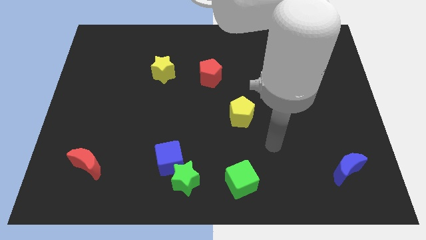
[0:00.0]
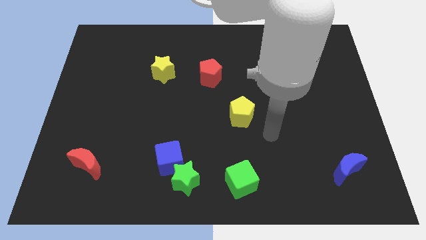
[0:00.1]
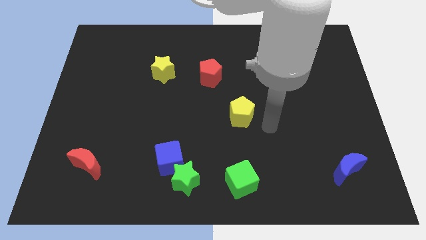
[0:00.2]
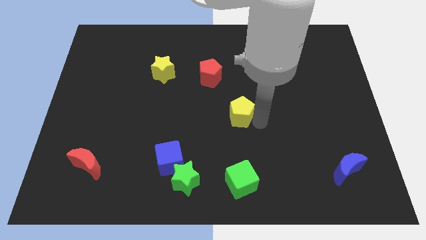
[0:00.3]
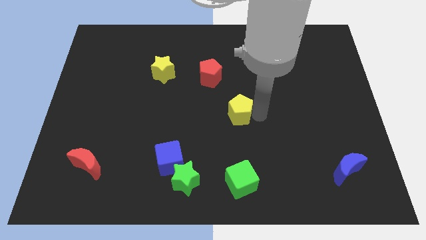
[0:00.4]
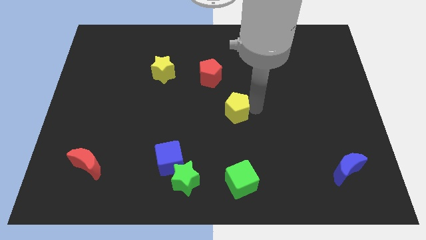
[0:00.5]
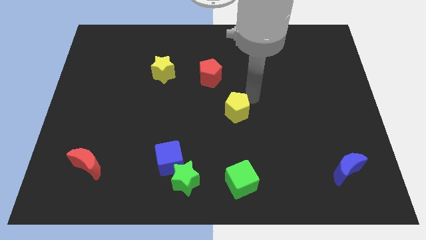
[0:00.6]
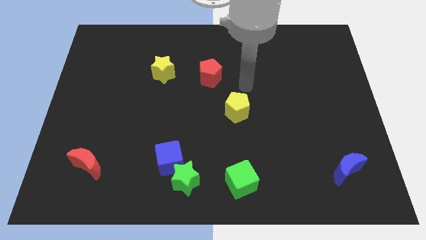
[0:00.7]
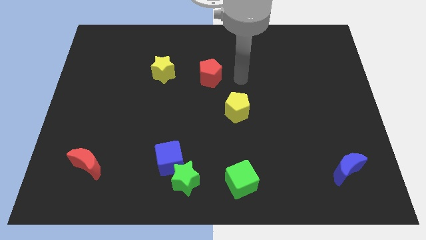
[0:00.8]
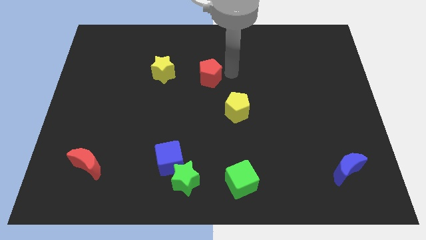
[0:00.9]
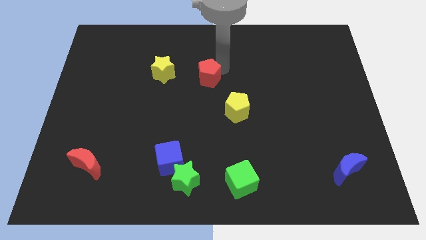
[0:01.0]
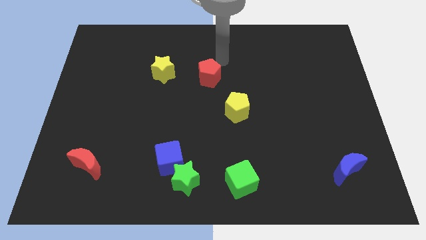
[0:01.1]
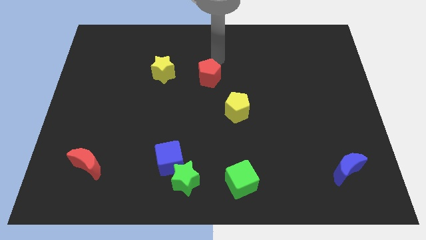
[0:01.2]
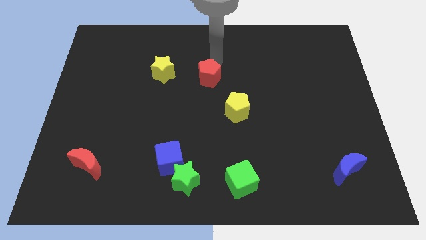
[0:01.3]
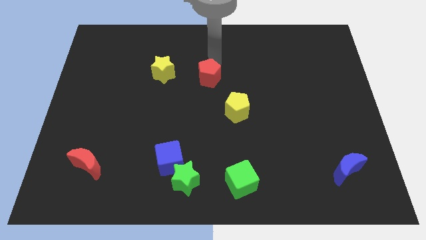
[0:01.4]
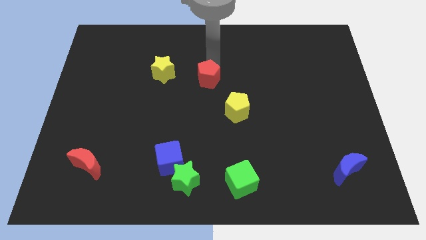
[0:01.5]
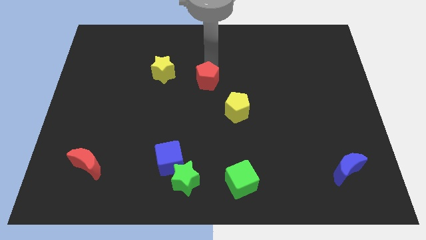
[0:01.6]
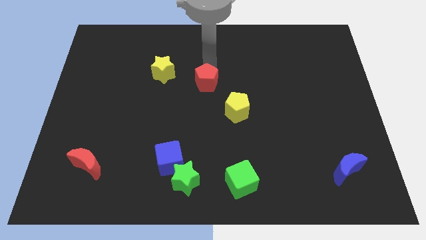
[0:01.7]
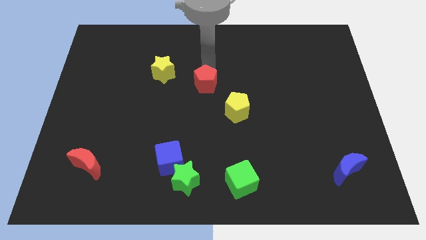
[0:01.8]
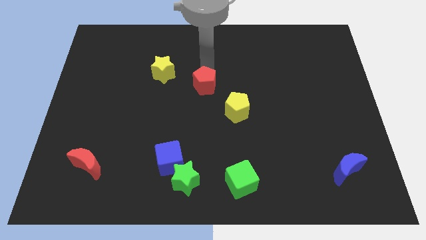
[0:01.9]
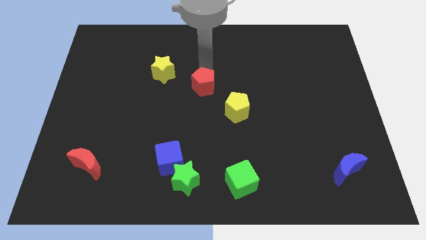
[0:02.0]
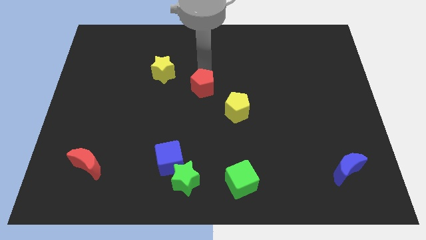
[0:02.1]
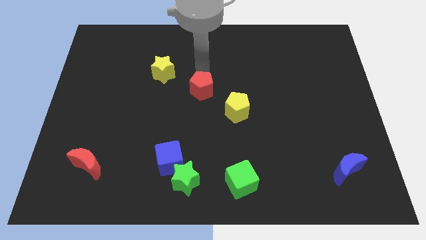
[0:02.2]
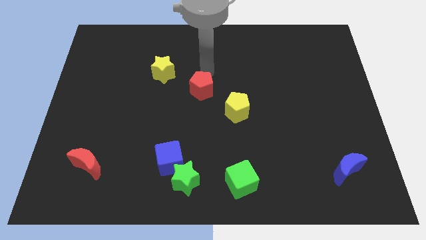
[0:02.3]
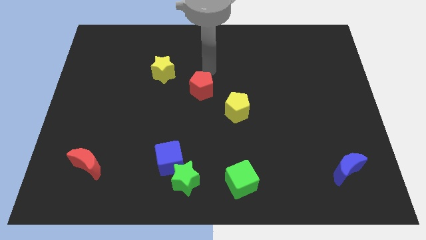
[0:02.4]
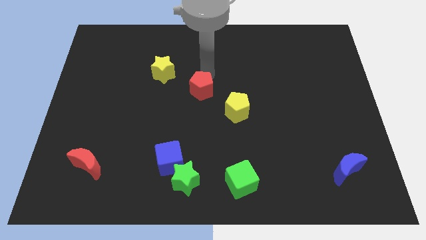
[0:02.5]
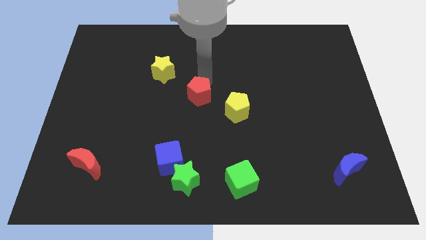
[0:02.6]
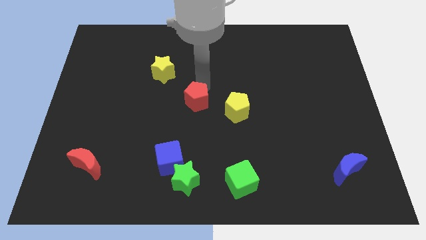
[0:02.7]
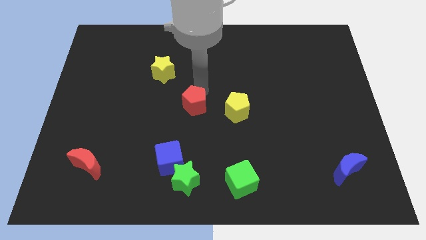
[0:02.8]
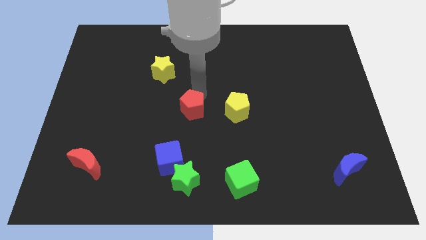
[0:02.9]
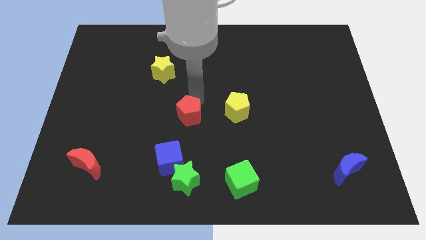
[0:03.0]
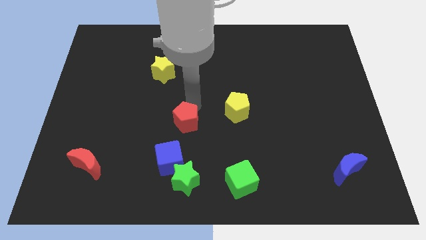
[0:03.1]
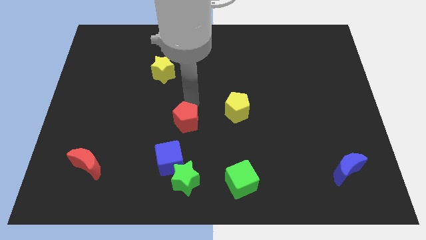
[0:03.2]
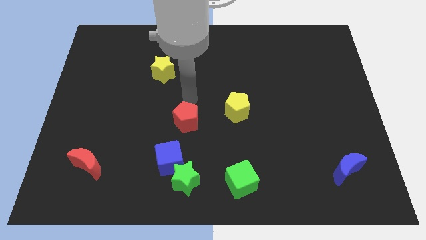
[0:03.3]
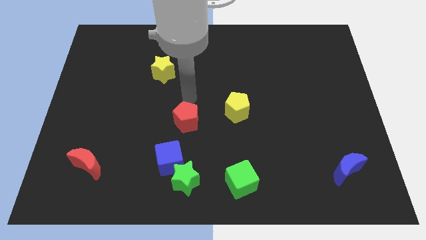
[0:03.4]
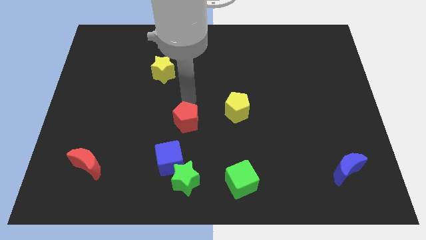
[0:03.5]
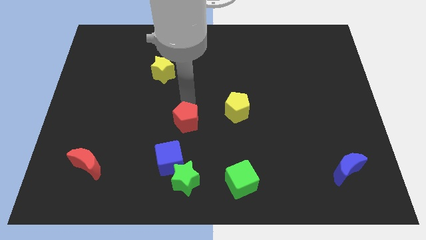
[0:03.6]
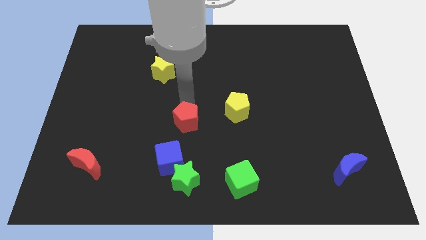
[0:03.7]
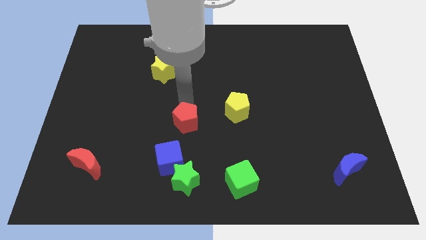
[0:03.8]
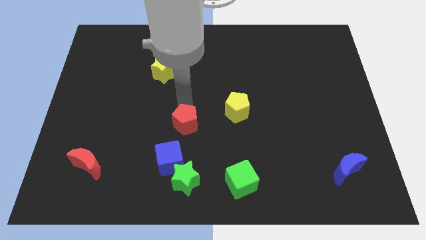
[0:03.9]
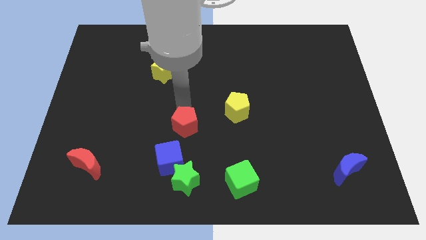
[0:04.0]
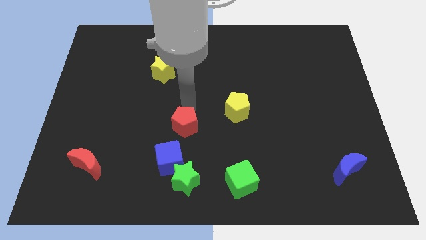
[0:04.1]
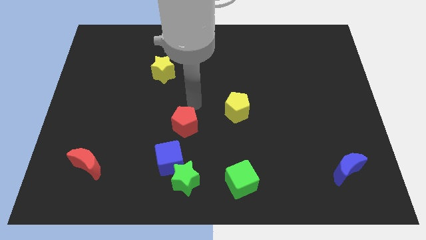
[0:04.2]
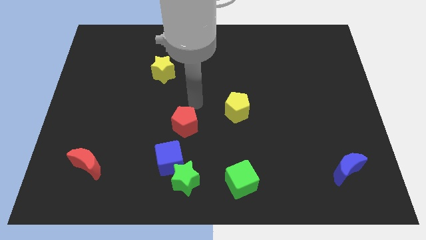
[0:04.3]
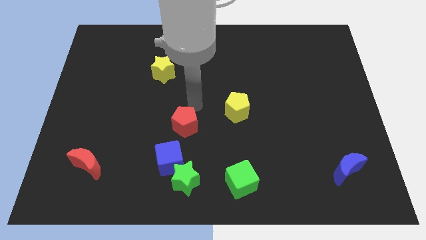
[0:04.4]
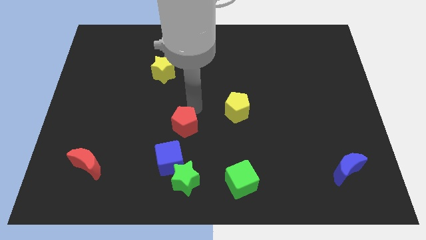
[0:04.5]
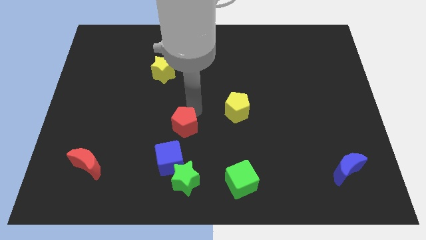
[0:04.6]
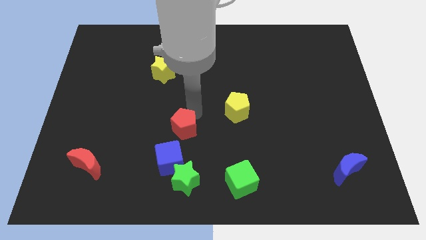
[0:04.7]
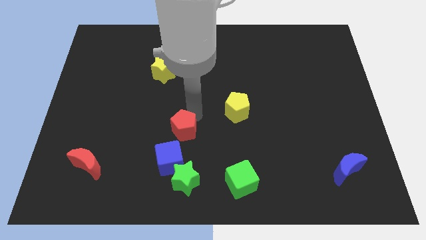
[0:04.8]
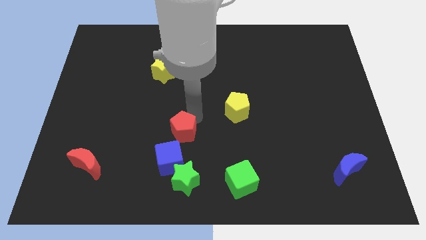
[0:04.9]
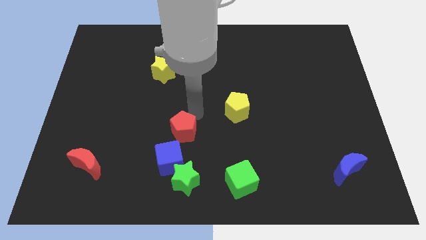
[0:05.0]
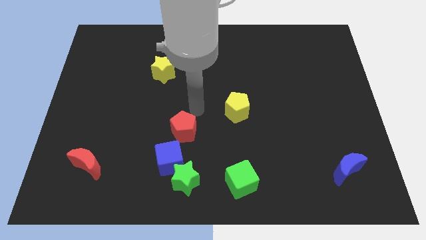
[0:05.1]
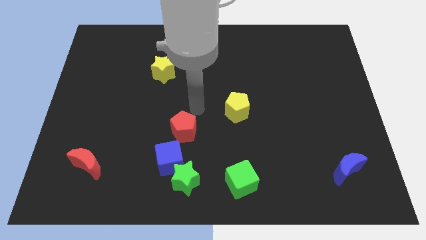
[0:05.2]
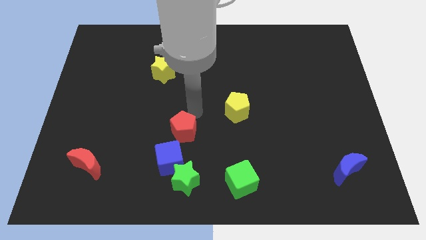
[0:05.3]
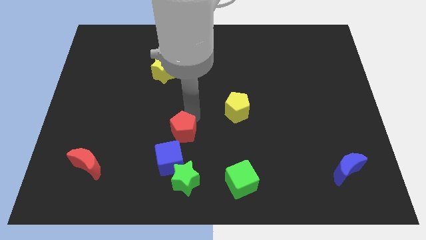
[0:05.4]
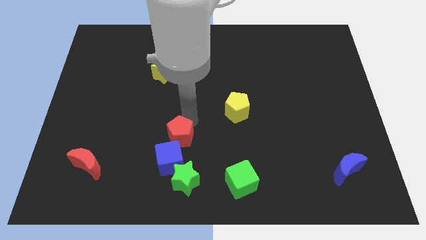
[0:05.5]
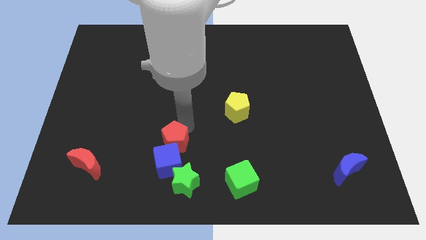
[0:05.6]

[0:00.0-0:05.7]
put the red pentagon close to the blue cube

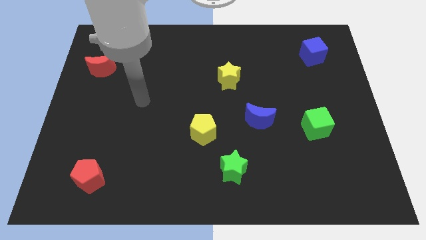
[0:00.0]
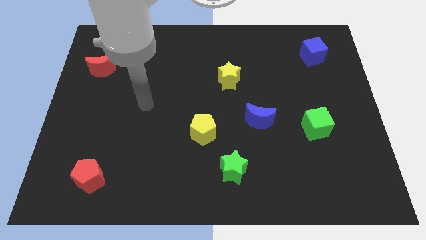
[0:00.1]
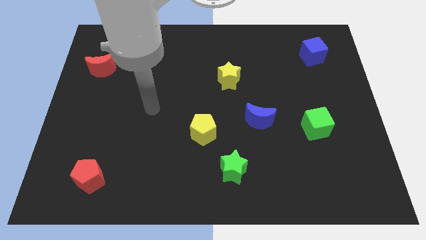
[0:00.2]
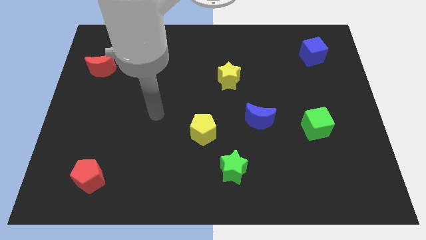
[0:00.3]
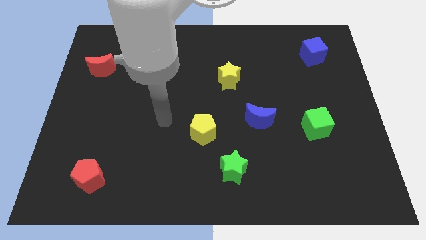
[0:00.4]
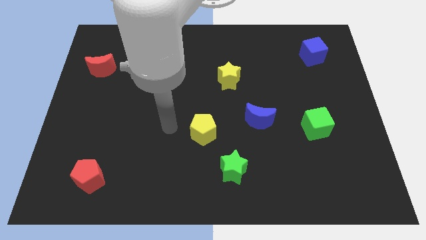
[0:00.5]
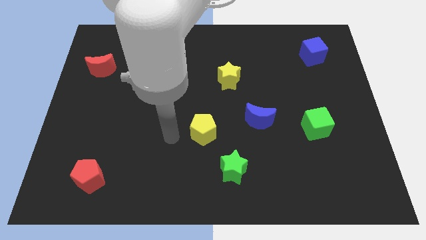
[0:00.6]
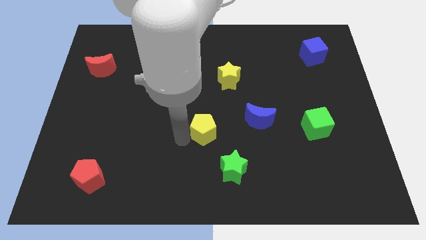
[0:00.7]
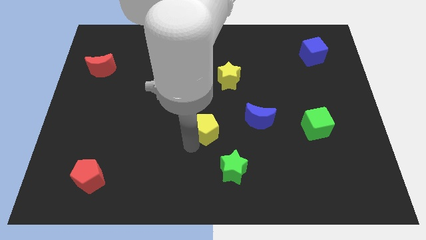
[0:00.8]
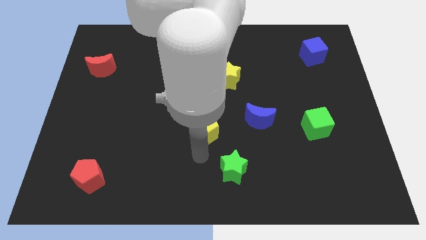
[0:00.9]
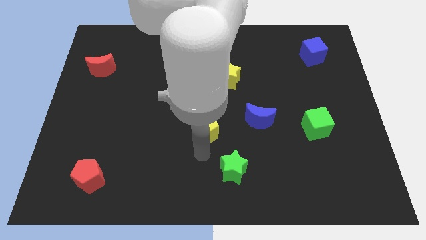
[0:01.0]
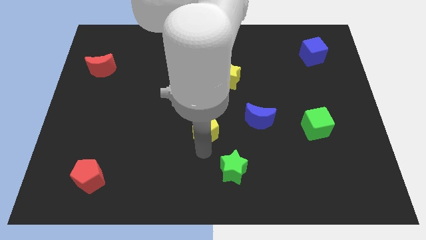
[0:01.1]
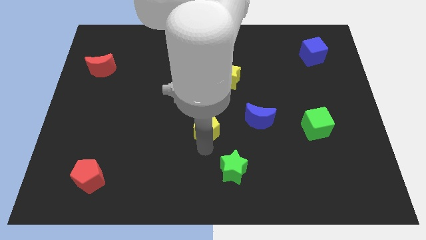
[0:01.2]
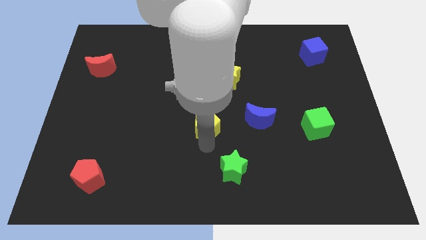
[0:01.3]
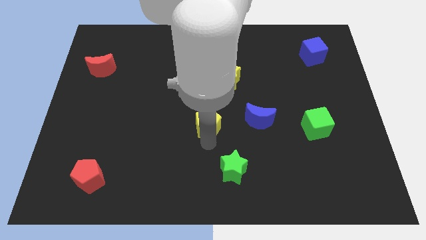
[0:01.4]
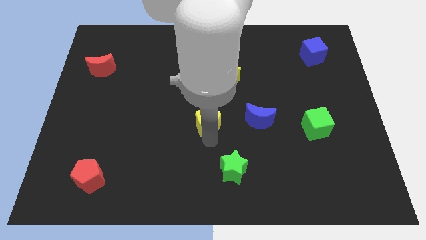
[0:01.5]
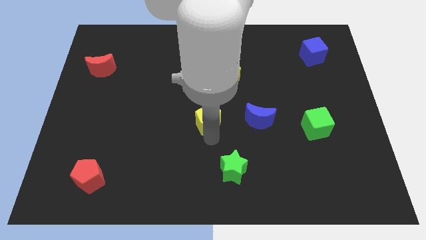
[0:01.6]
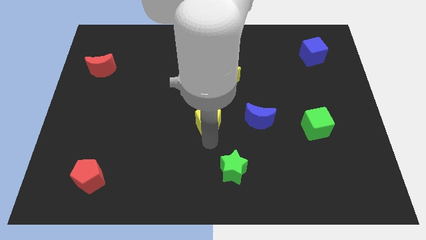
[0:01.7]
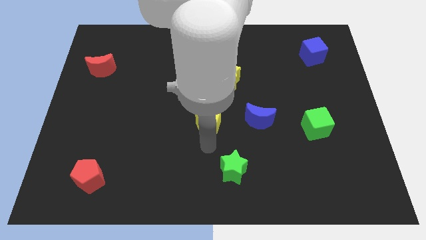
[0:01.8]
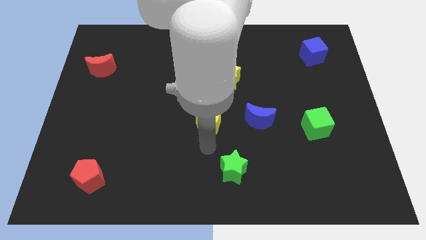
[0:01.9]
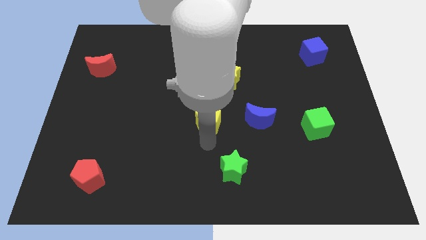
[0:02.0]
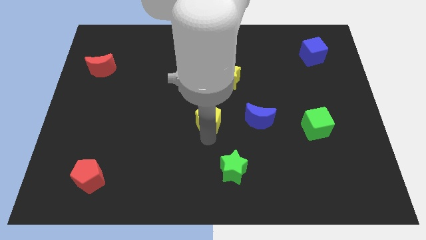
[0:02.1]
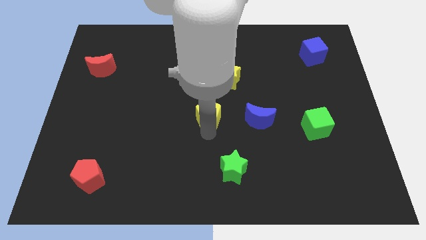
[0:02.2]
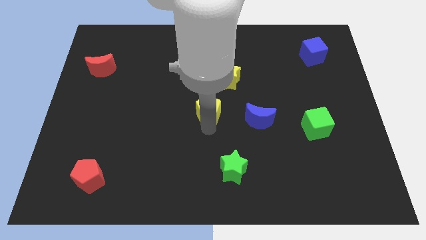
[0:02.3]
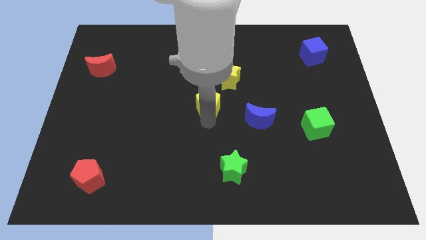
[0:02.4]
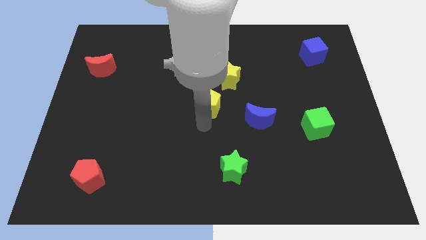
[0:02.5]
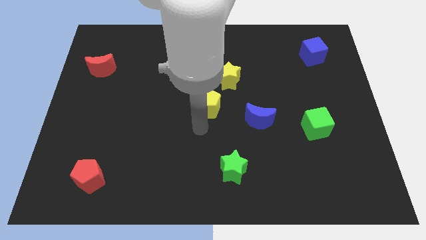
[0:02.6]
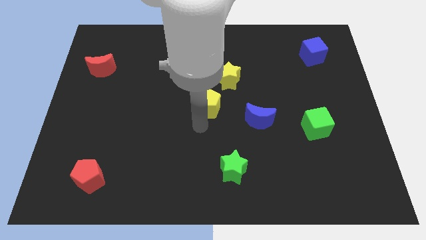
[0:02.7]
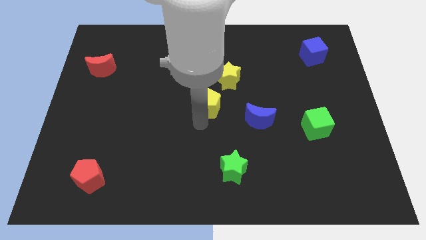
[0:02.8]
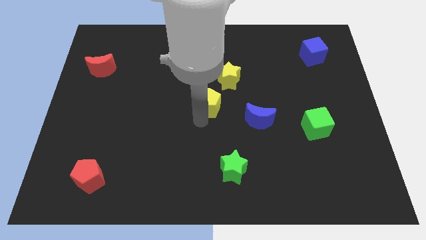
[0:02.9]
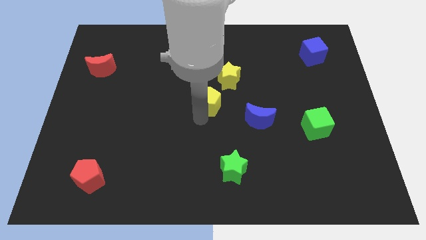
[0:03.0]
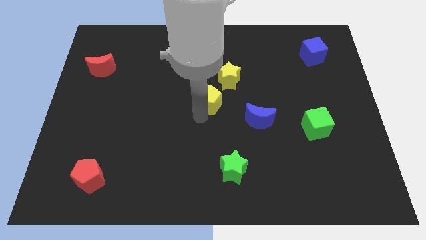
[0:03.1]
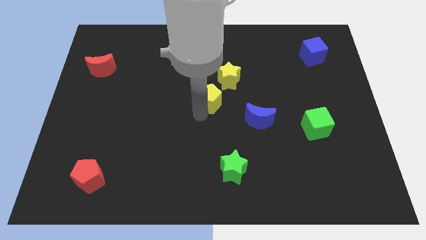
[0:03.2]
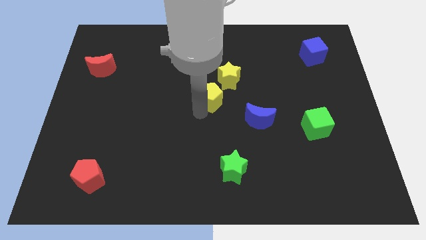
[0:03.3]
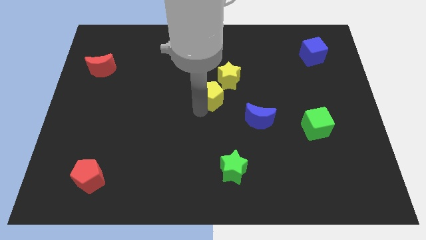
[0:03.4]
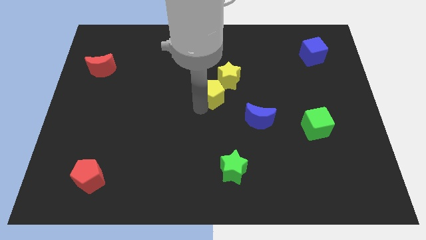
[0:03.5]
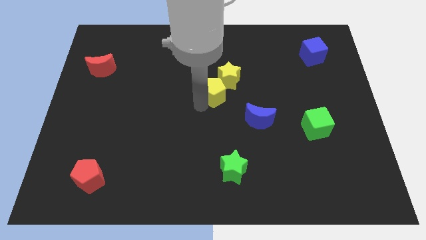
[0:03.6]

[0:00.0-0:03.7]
put the yellow pentagon to the yellow star
